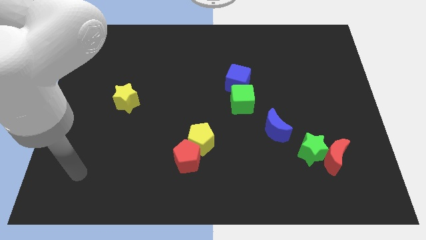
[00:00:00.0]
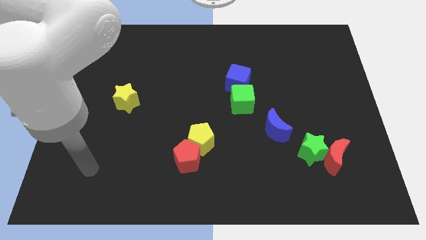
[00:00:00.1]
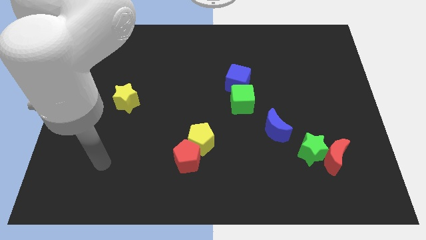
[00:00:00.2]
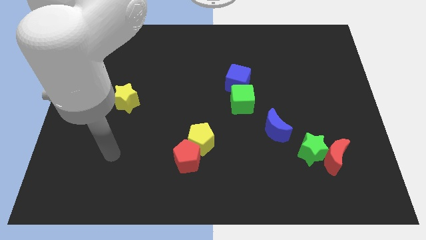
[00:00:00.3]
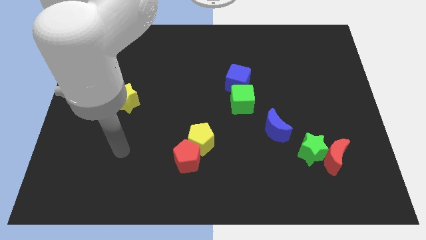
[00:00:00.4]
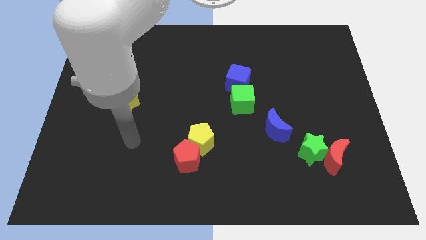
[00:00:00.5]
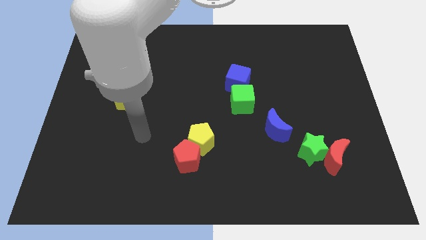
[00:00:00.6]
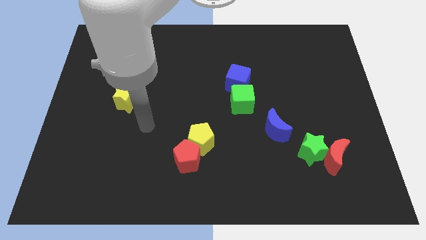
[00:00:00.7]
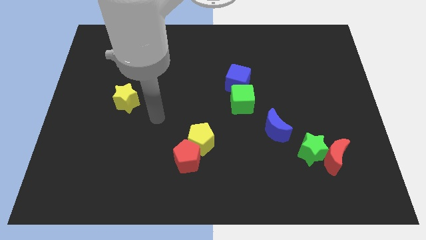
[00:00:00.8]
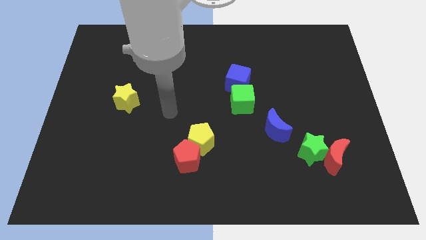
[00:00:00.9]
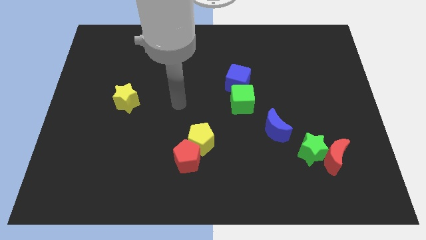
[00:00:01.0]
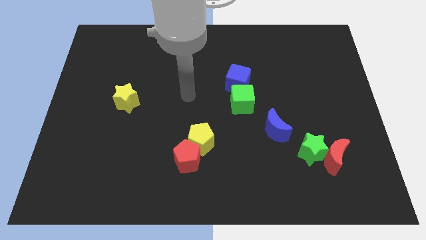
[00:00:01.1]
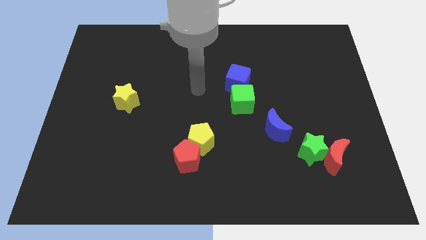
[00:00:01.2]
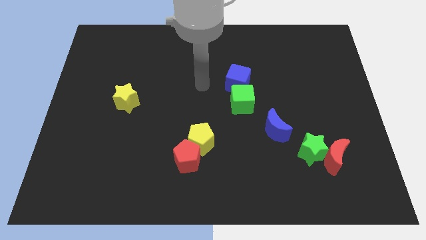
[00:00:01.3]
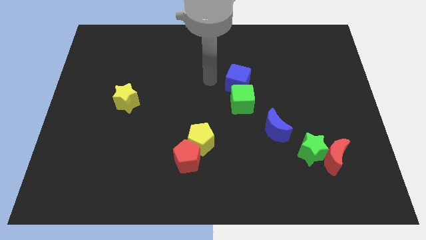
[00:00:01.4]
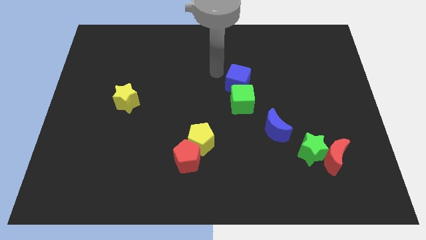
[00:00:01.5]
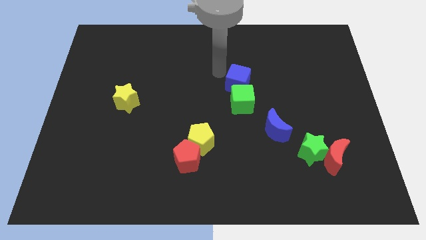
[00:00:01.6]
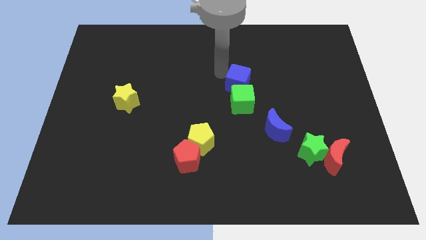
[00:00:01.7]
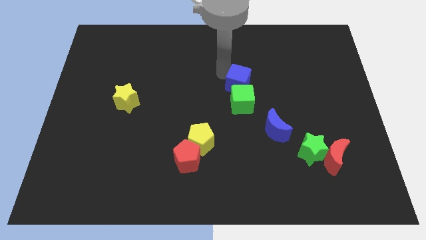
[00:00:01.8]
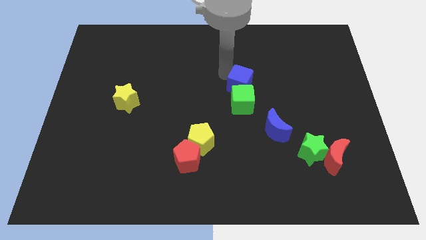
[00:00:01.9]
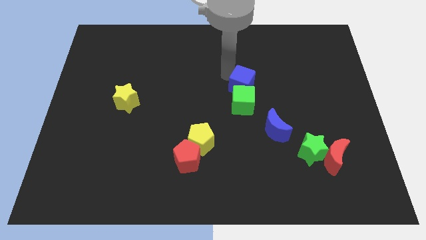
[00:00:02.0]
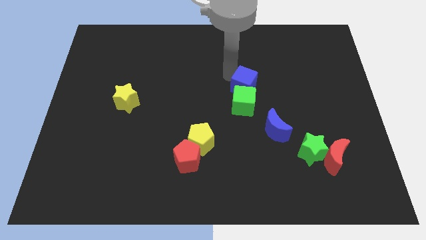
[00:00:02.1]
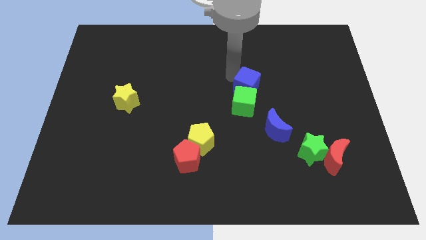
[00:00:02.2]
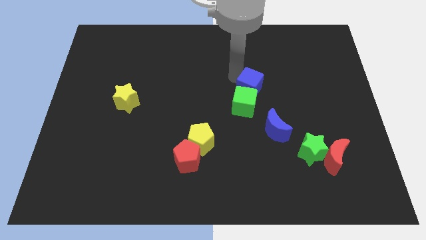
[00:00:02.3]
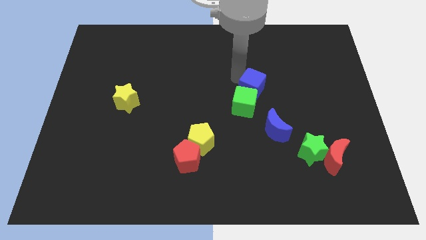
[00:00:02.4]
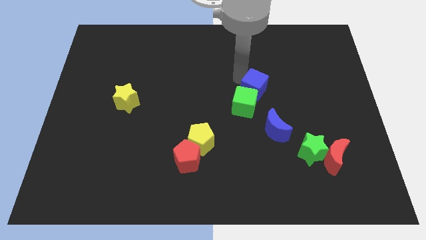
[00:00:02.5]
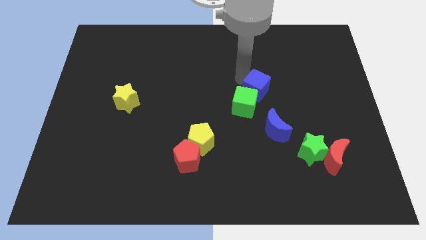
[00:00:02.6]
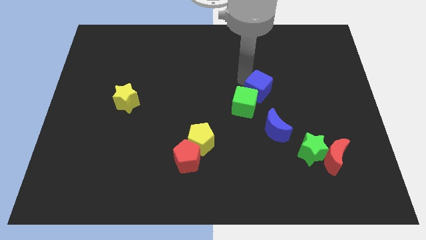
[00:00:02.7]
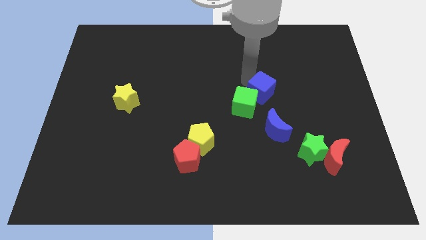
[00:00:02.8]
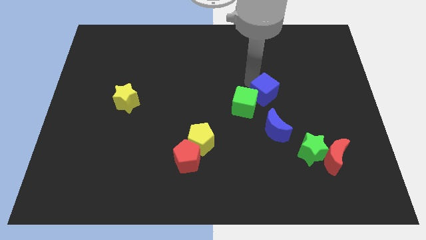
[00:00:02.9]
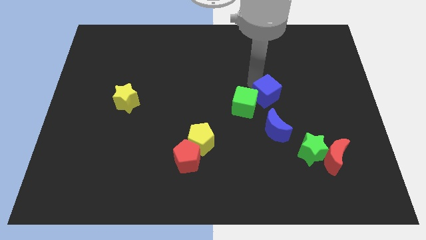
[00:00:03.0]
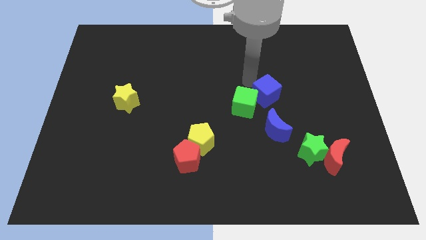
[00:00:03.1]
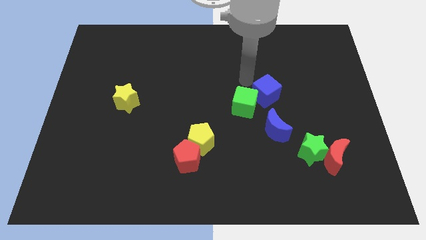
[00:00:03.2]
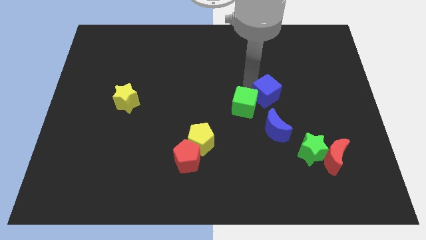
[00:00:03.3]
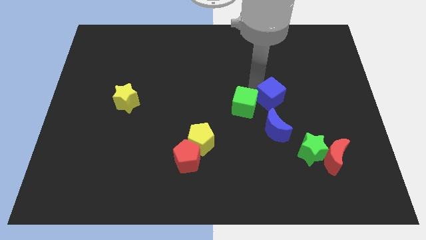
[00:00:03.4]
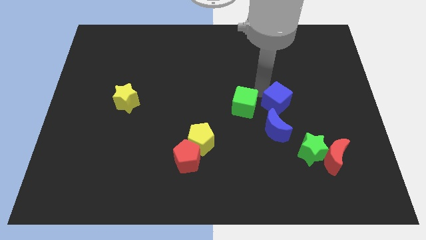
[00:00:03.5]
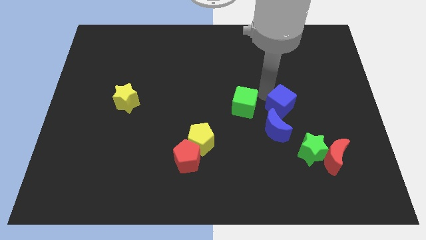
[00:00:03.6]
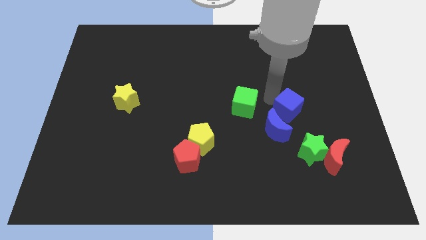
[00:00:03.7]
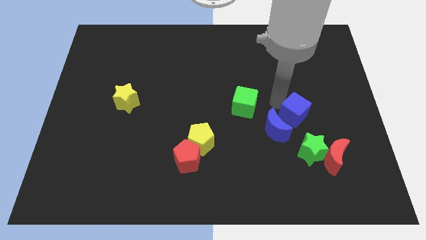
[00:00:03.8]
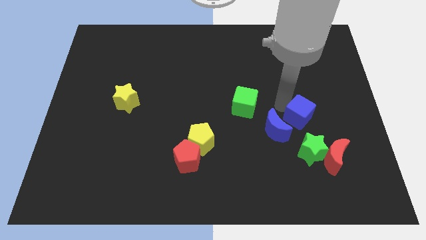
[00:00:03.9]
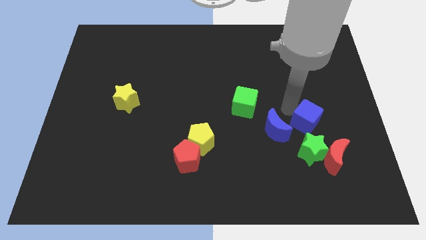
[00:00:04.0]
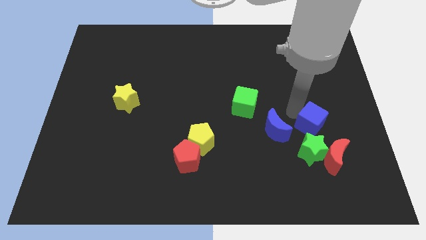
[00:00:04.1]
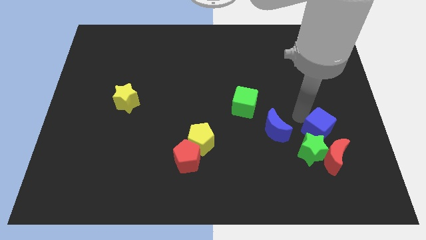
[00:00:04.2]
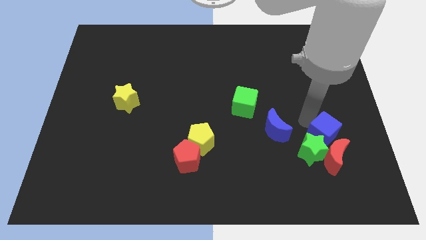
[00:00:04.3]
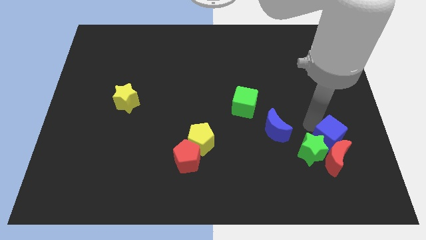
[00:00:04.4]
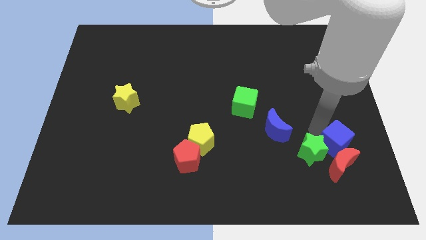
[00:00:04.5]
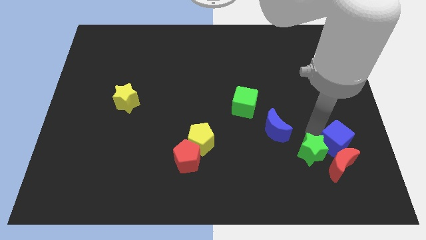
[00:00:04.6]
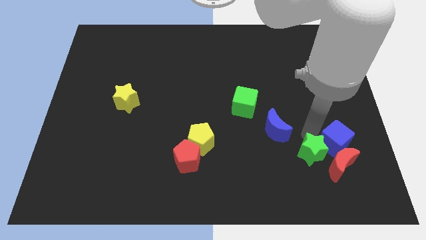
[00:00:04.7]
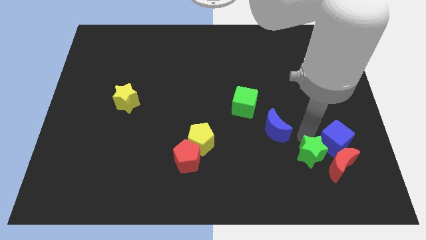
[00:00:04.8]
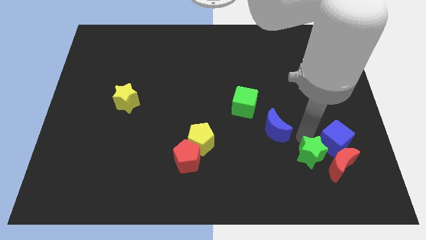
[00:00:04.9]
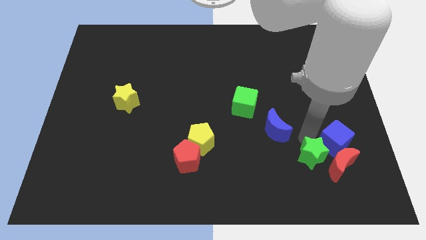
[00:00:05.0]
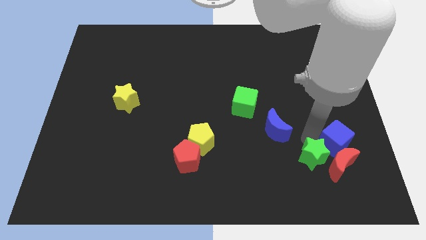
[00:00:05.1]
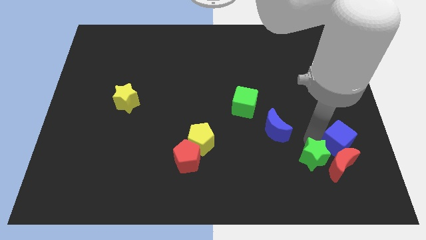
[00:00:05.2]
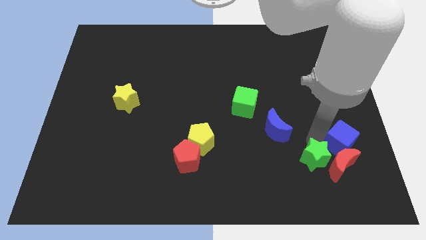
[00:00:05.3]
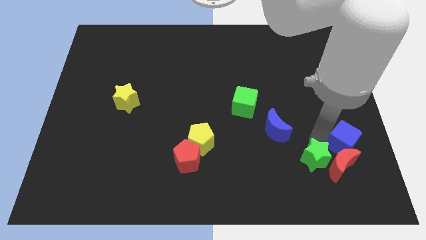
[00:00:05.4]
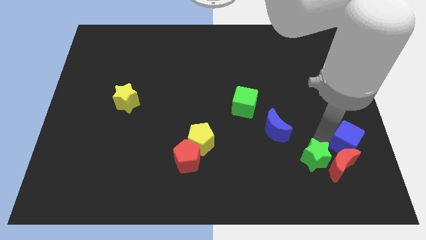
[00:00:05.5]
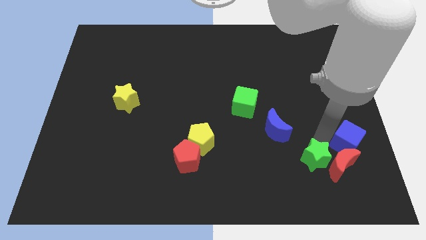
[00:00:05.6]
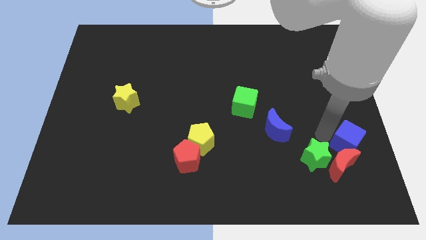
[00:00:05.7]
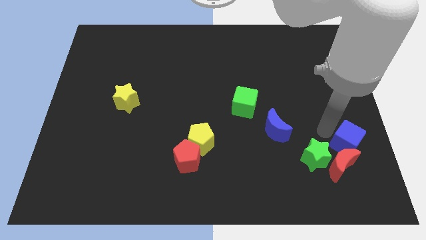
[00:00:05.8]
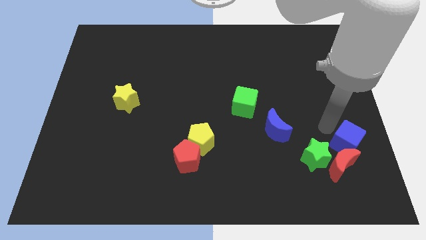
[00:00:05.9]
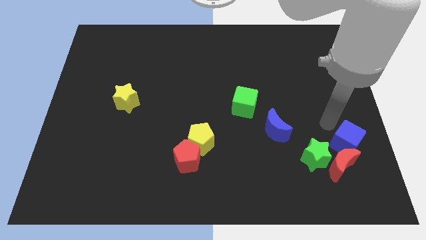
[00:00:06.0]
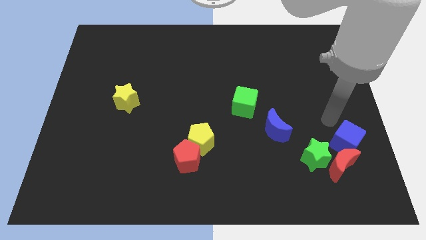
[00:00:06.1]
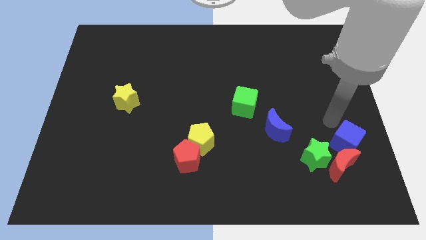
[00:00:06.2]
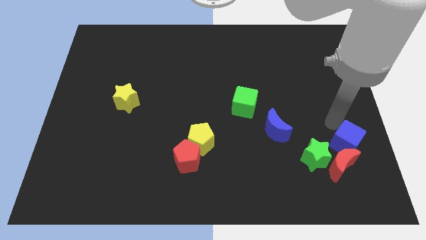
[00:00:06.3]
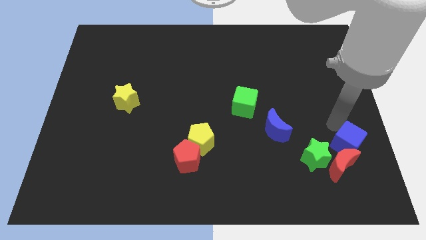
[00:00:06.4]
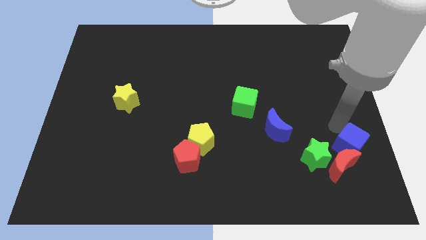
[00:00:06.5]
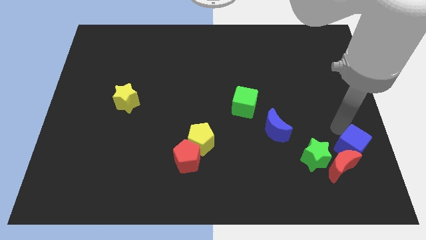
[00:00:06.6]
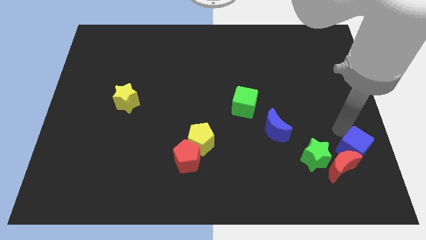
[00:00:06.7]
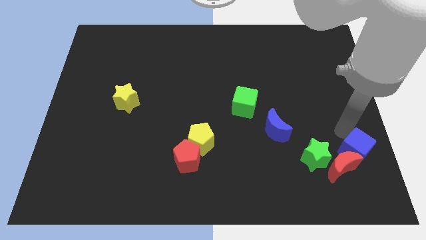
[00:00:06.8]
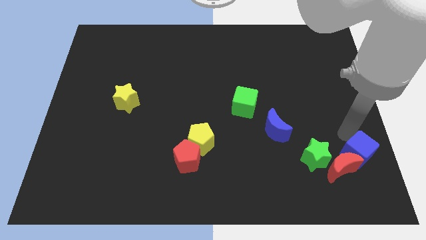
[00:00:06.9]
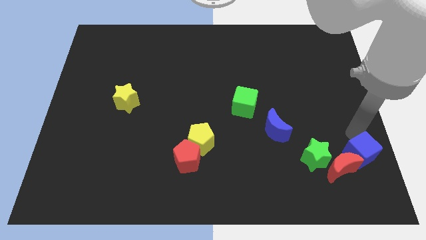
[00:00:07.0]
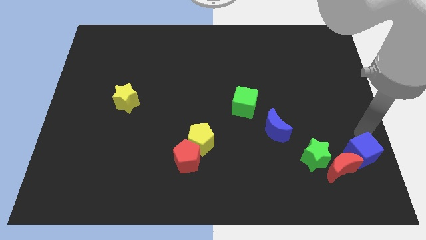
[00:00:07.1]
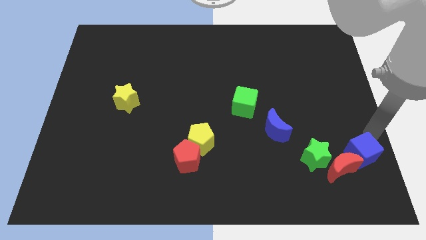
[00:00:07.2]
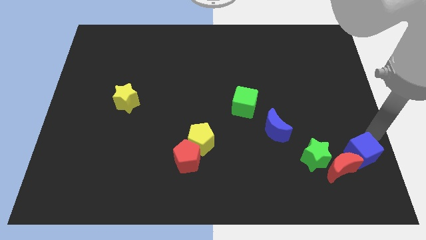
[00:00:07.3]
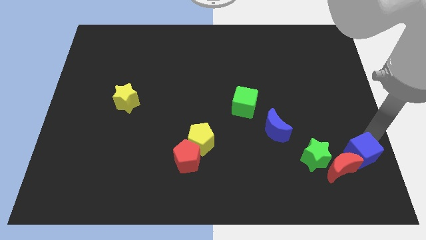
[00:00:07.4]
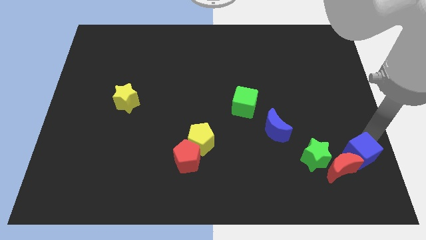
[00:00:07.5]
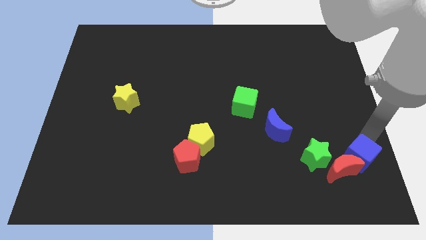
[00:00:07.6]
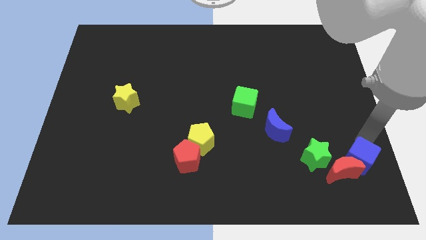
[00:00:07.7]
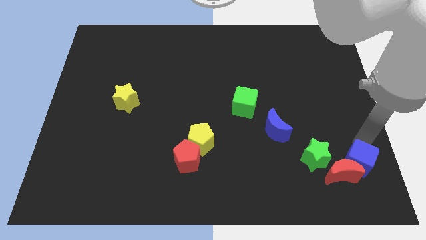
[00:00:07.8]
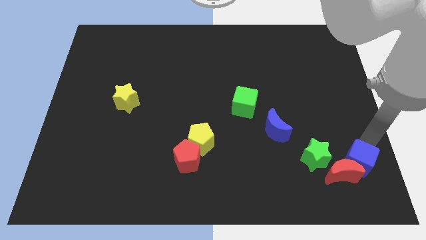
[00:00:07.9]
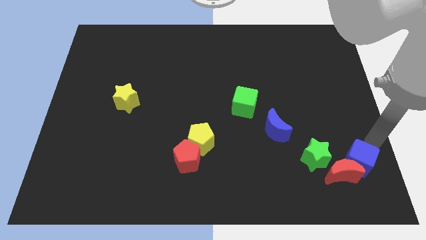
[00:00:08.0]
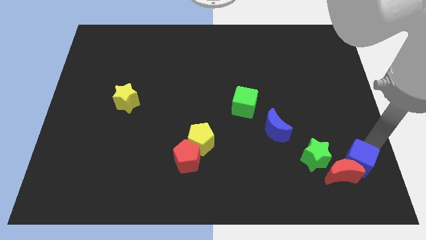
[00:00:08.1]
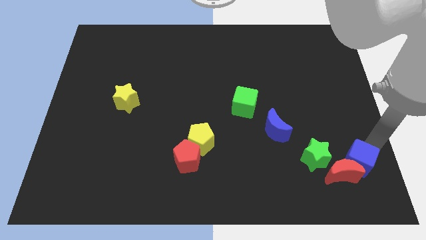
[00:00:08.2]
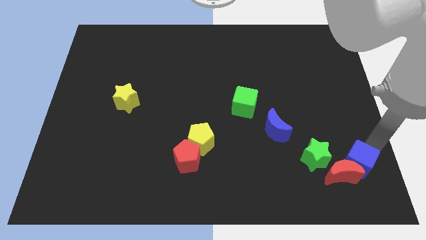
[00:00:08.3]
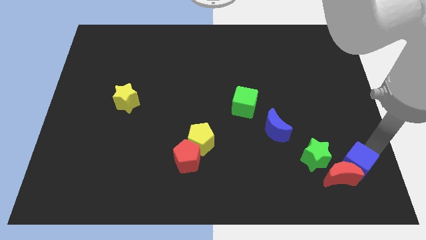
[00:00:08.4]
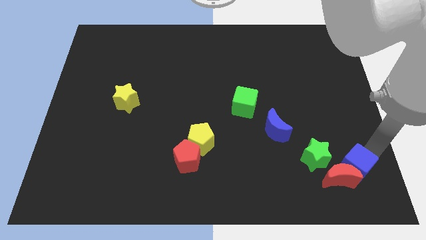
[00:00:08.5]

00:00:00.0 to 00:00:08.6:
push the blue cube to the bottom right side of the green star
